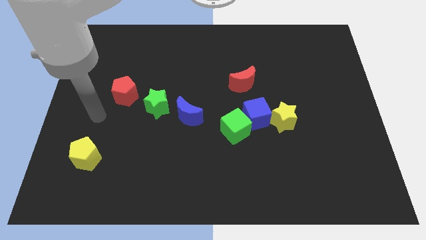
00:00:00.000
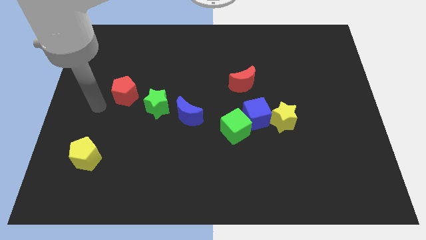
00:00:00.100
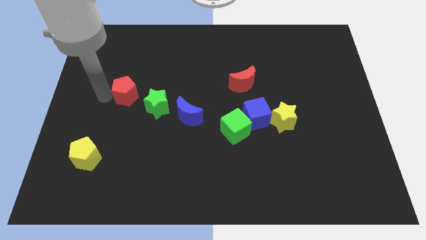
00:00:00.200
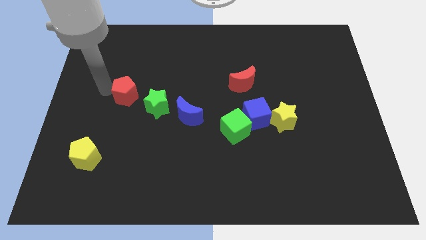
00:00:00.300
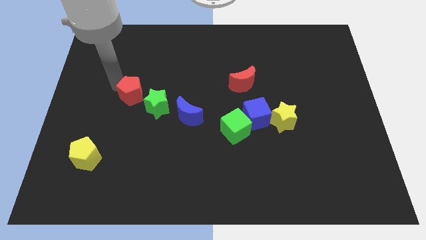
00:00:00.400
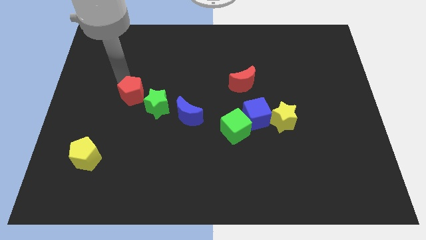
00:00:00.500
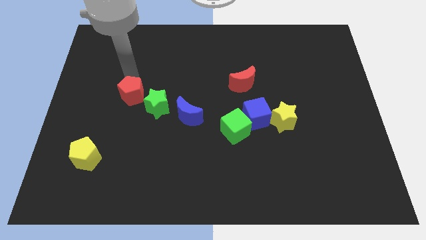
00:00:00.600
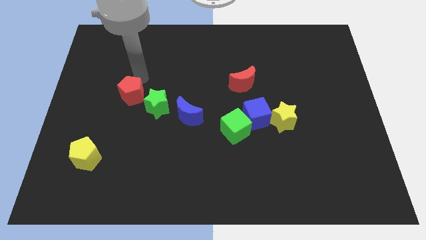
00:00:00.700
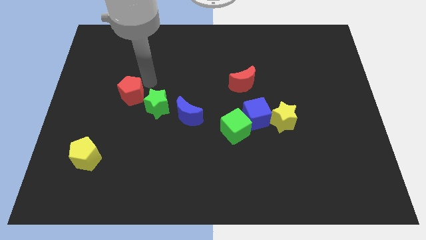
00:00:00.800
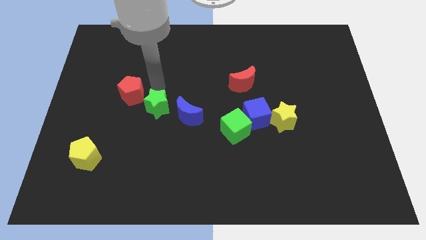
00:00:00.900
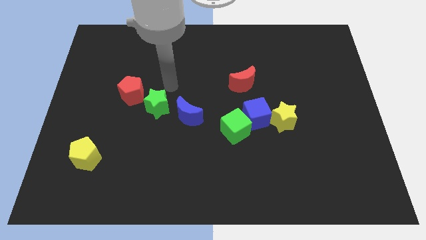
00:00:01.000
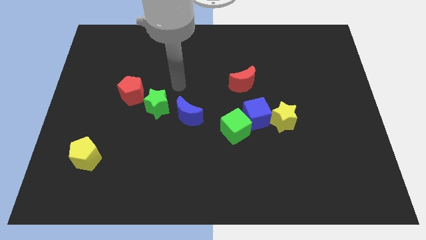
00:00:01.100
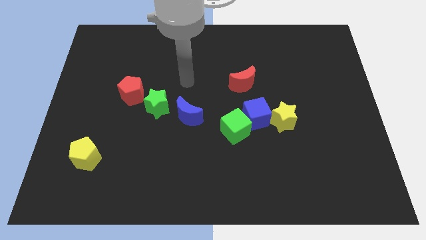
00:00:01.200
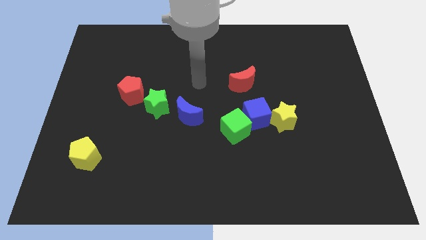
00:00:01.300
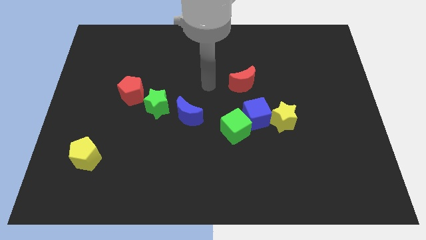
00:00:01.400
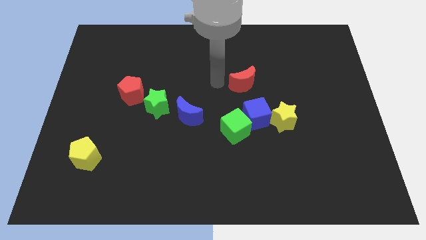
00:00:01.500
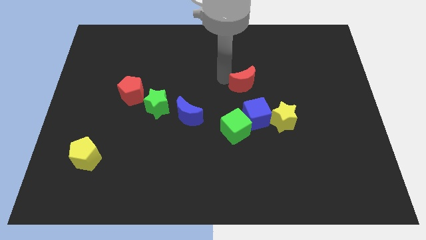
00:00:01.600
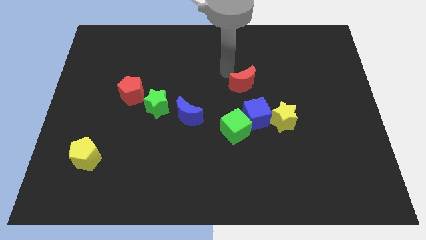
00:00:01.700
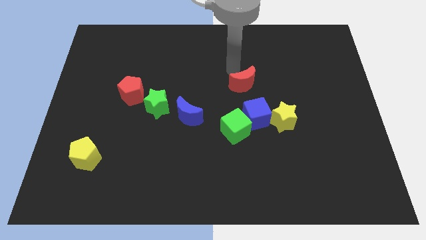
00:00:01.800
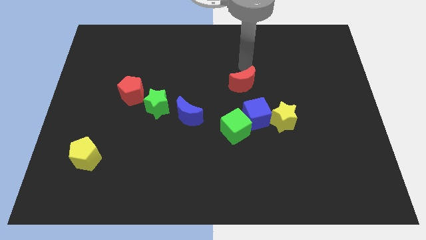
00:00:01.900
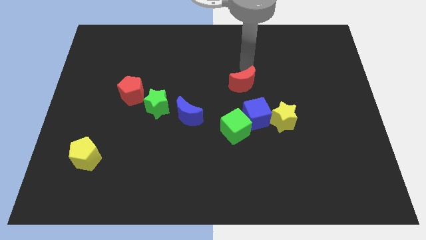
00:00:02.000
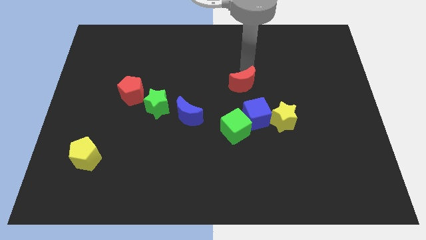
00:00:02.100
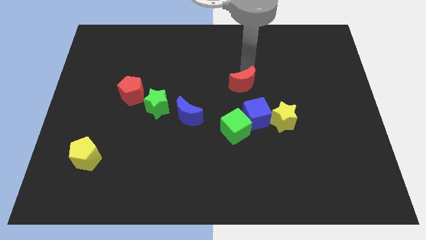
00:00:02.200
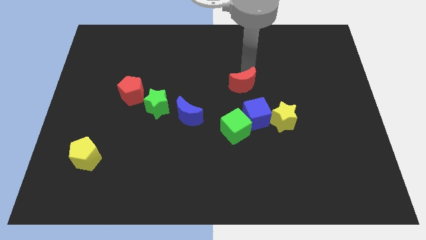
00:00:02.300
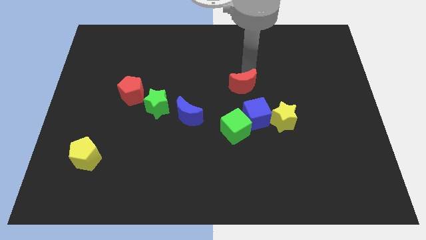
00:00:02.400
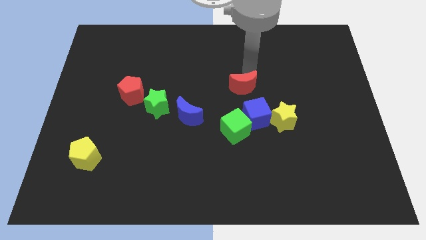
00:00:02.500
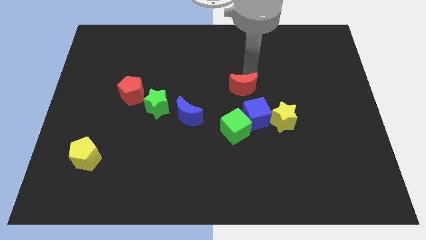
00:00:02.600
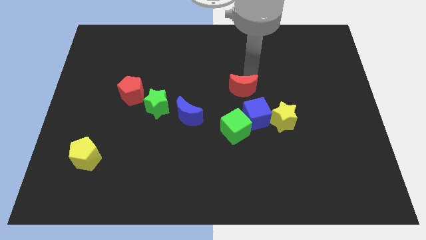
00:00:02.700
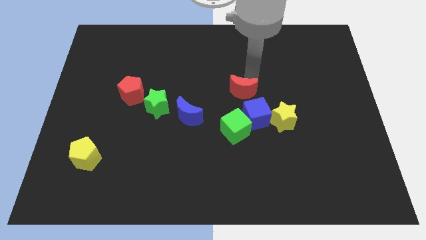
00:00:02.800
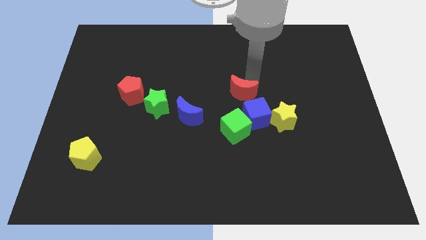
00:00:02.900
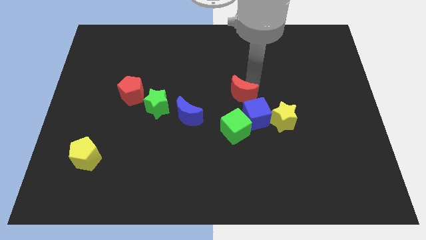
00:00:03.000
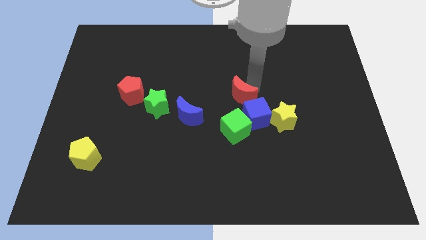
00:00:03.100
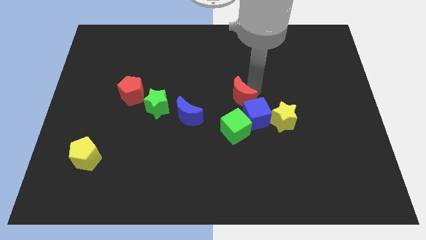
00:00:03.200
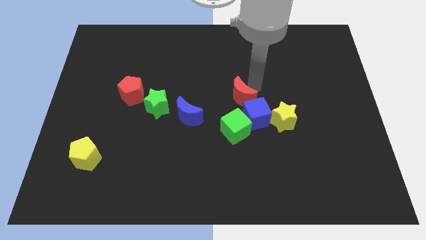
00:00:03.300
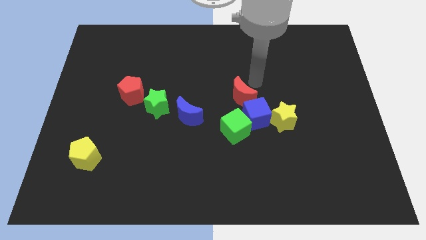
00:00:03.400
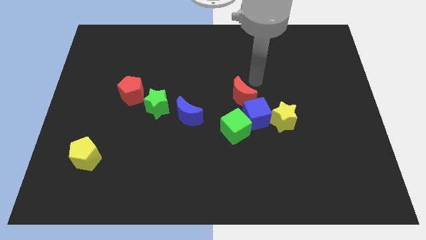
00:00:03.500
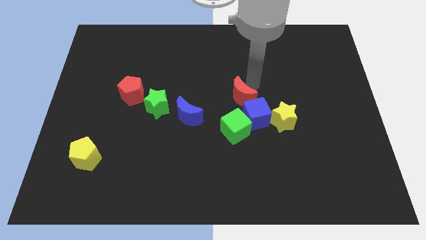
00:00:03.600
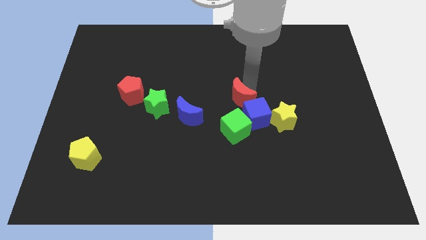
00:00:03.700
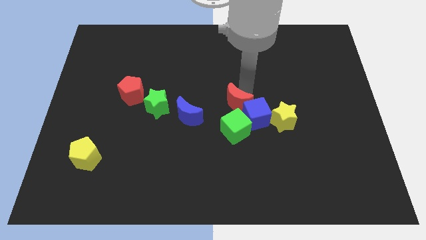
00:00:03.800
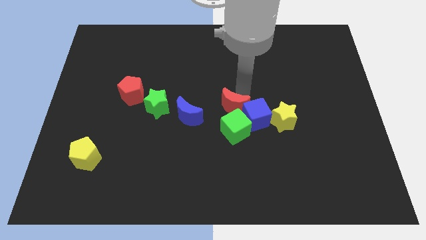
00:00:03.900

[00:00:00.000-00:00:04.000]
slide the red moon downwards a bit

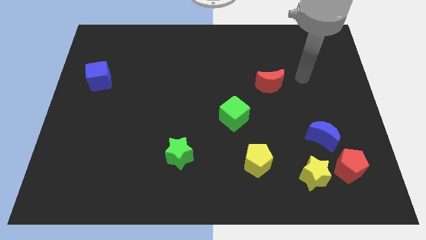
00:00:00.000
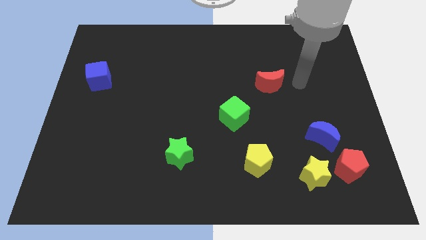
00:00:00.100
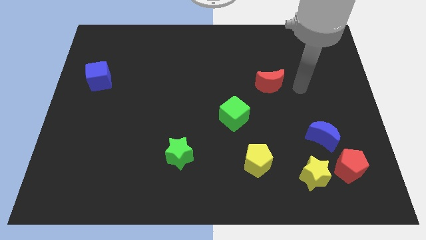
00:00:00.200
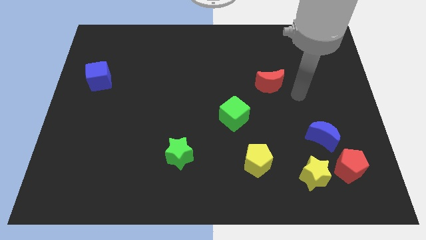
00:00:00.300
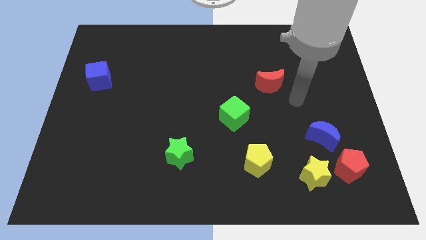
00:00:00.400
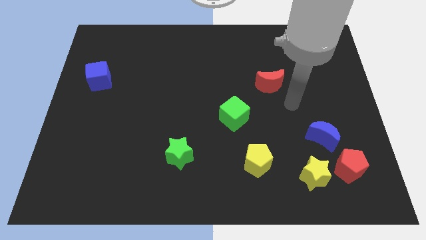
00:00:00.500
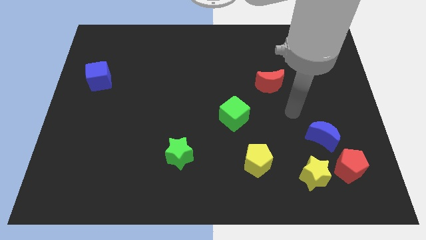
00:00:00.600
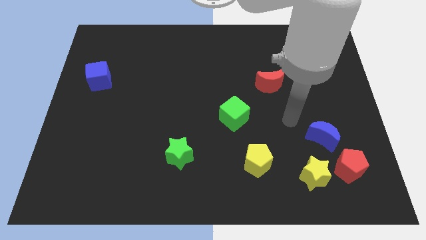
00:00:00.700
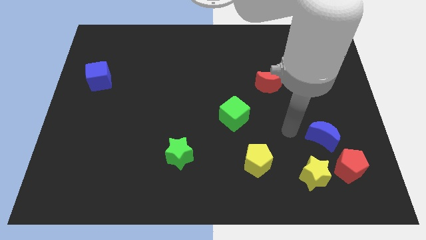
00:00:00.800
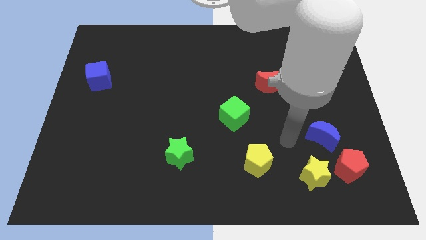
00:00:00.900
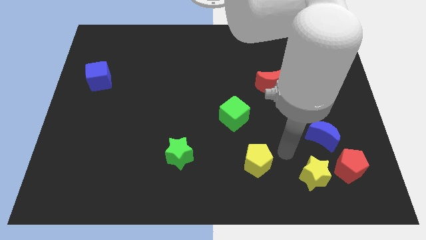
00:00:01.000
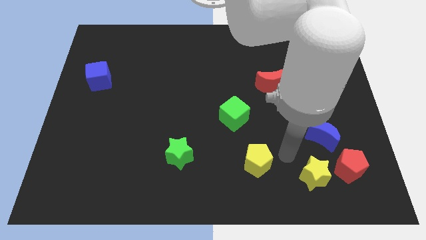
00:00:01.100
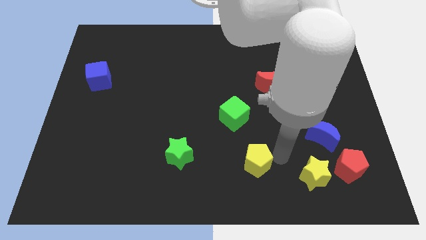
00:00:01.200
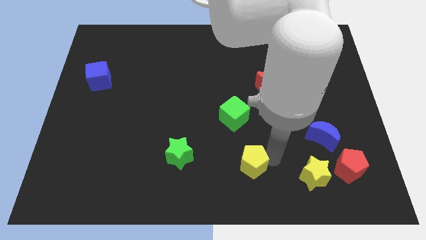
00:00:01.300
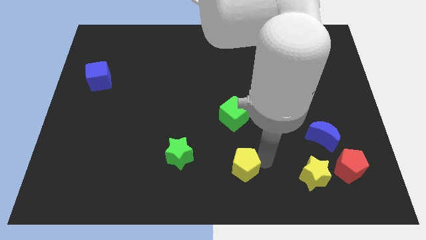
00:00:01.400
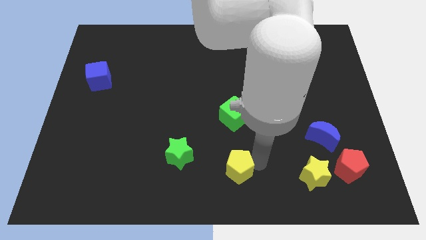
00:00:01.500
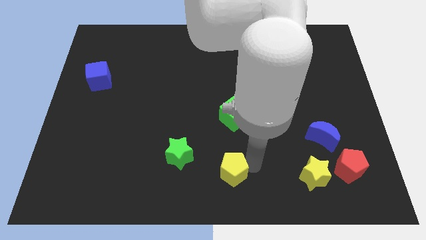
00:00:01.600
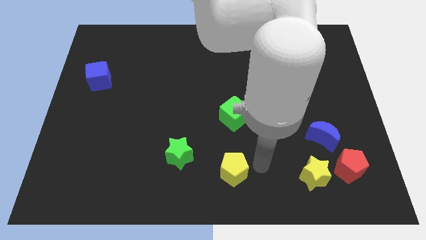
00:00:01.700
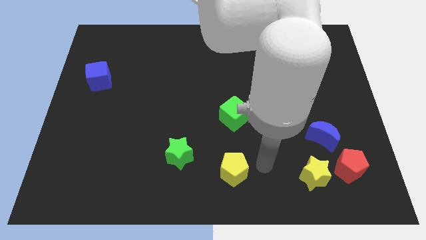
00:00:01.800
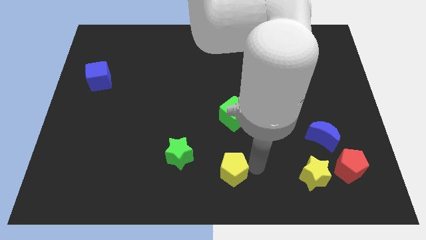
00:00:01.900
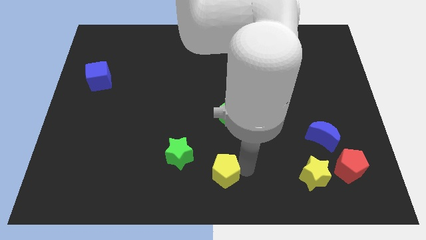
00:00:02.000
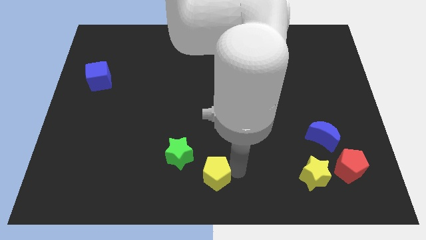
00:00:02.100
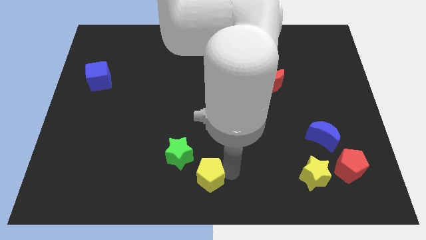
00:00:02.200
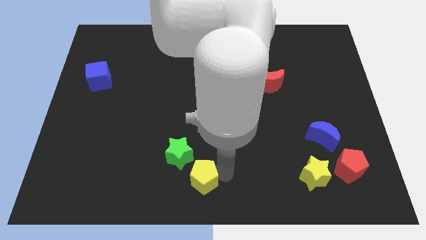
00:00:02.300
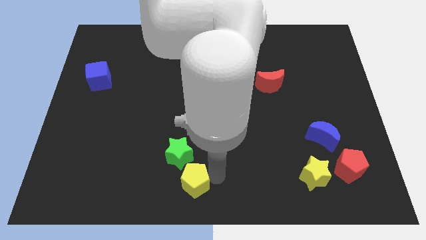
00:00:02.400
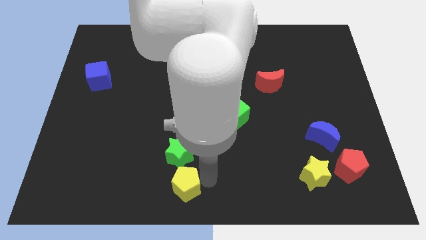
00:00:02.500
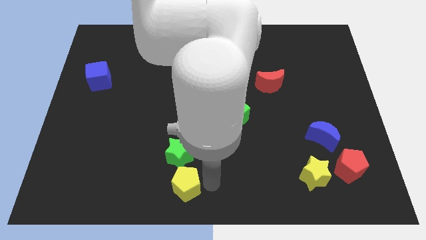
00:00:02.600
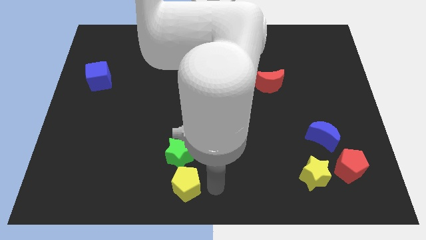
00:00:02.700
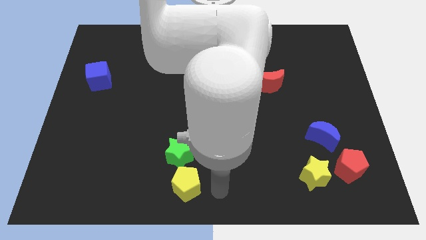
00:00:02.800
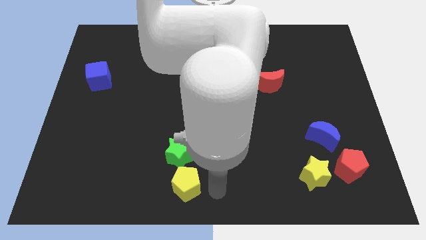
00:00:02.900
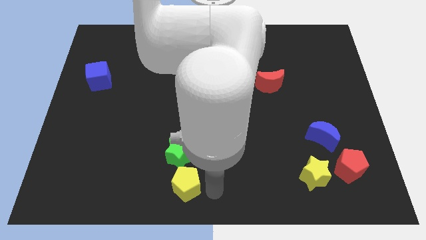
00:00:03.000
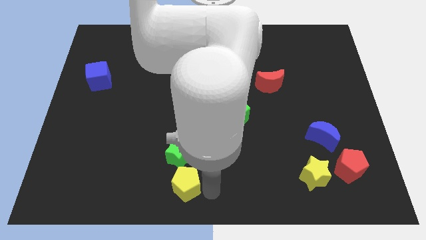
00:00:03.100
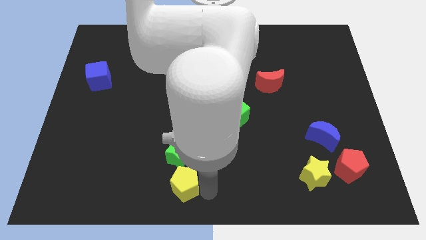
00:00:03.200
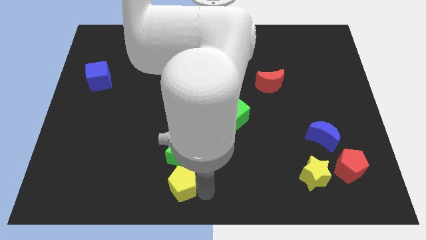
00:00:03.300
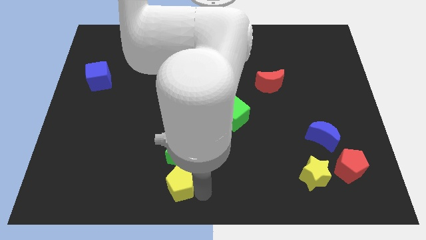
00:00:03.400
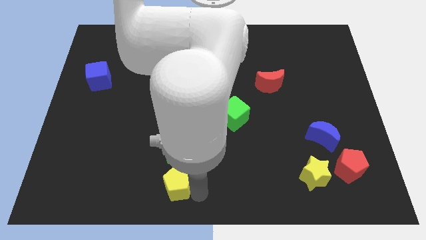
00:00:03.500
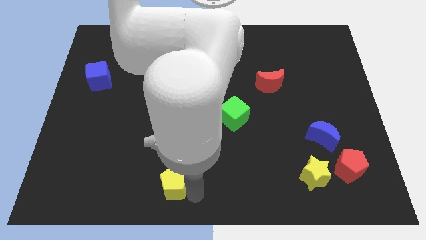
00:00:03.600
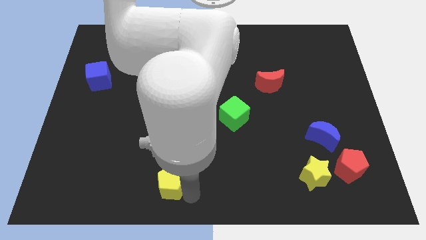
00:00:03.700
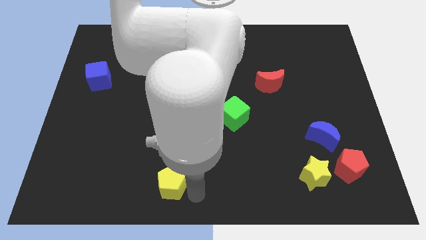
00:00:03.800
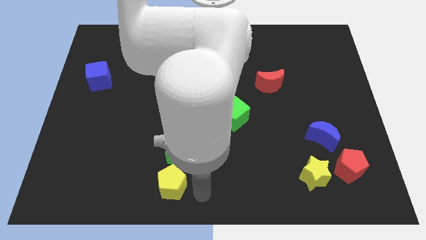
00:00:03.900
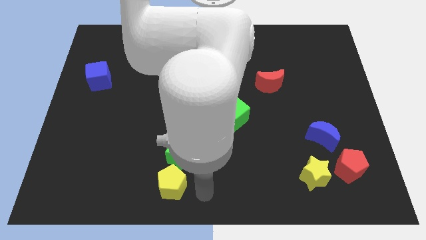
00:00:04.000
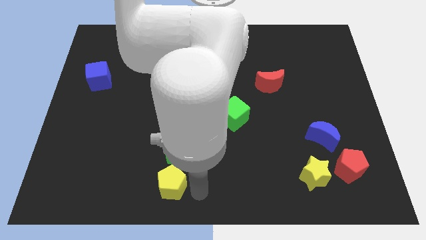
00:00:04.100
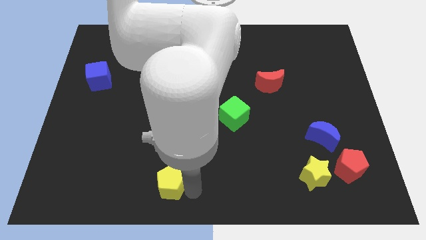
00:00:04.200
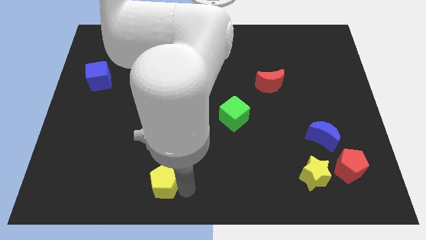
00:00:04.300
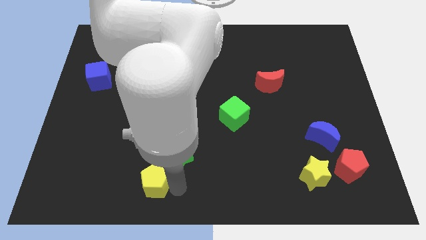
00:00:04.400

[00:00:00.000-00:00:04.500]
push the yellow pentagon left

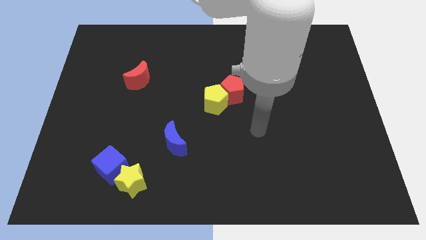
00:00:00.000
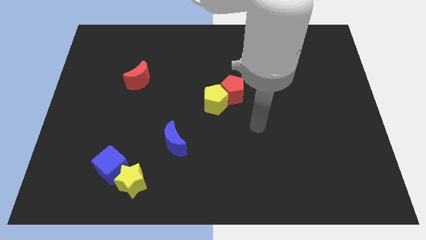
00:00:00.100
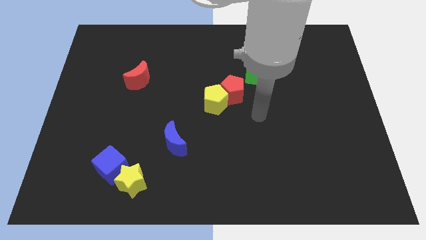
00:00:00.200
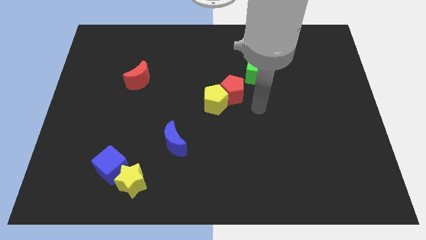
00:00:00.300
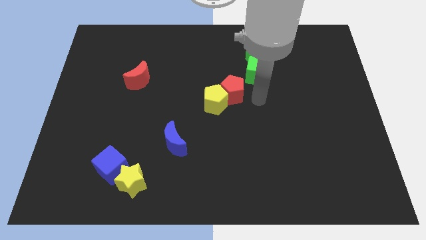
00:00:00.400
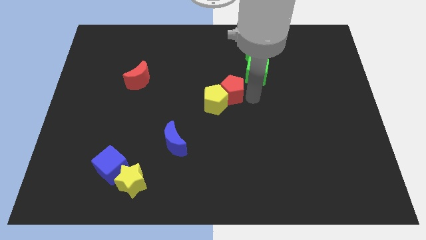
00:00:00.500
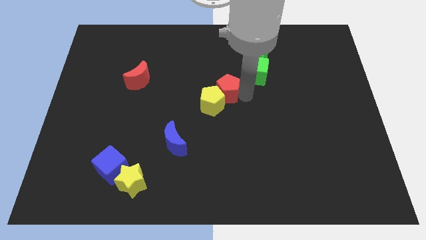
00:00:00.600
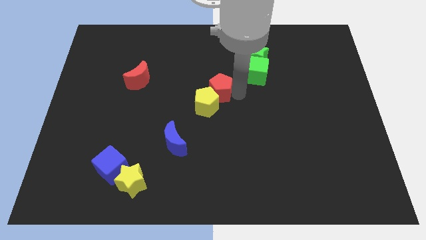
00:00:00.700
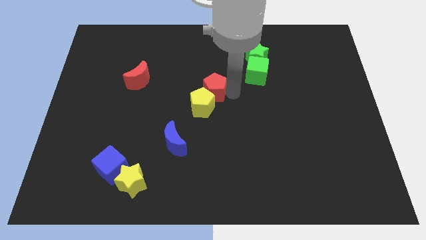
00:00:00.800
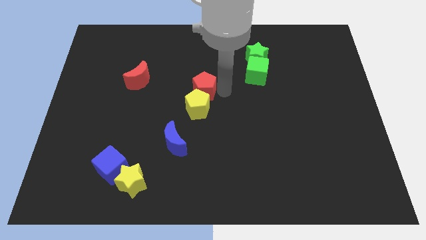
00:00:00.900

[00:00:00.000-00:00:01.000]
slide the red pentagon to the left a bit
